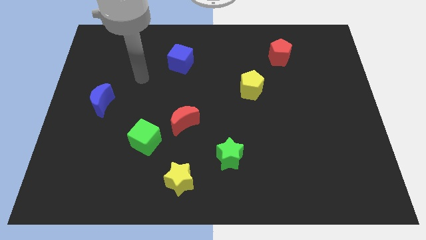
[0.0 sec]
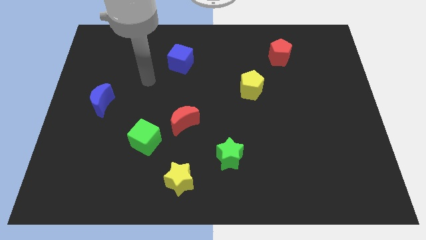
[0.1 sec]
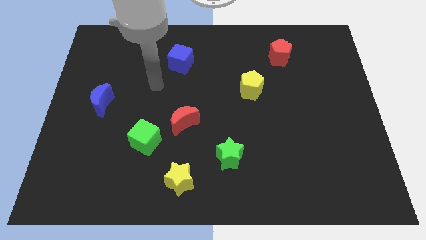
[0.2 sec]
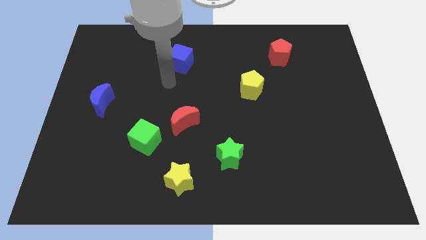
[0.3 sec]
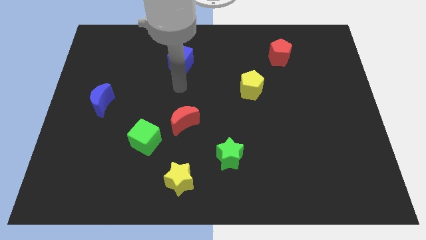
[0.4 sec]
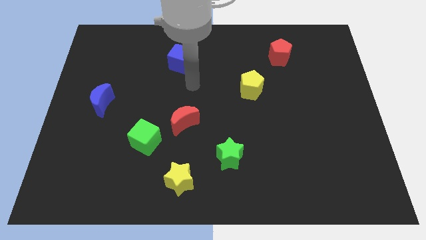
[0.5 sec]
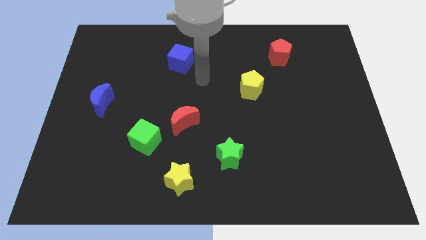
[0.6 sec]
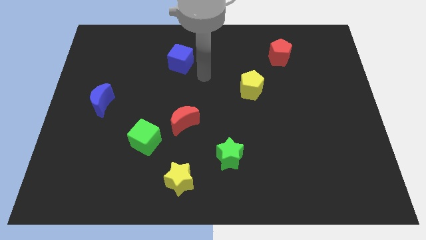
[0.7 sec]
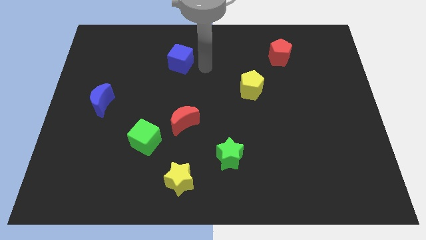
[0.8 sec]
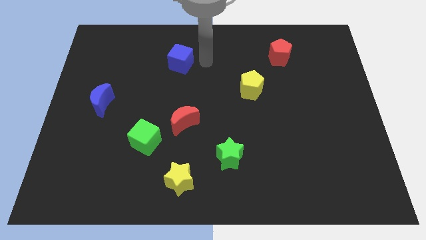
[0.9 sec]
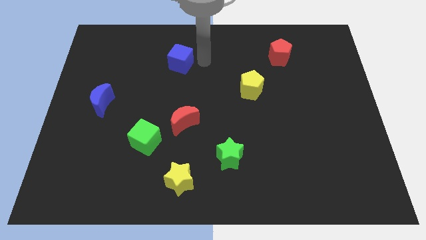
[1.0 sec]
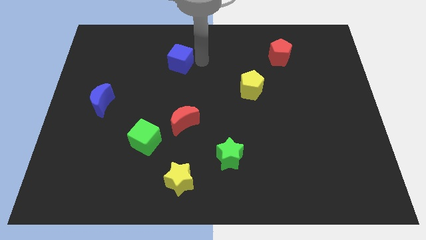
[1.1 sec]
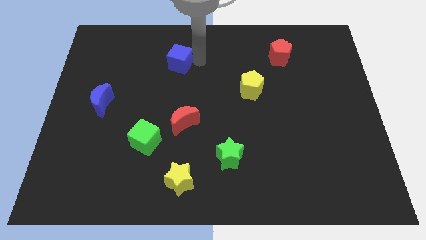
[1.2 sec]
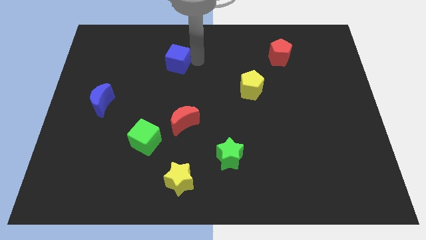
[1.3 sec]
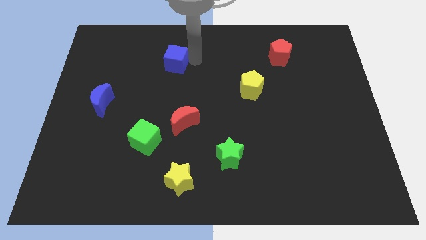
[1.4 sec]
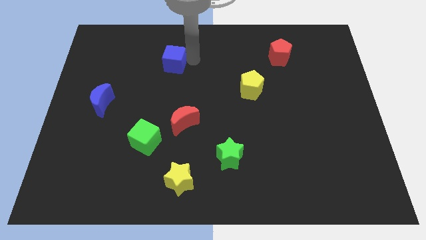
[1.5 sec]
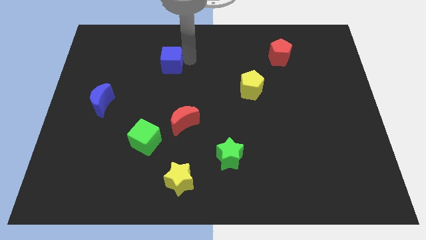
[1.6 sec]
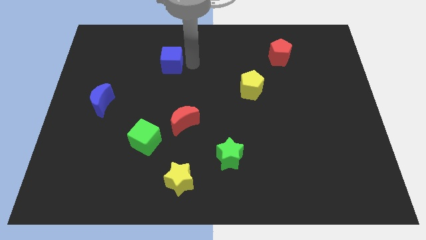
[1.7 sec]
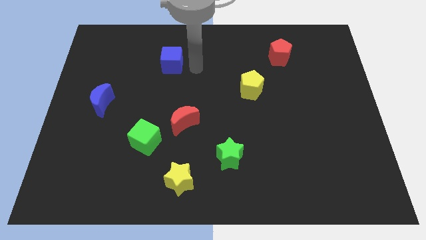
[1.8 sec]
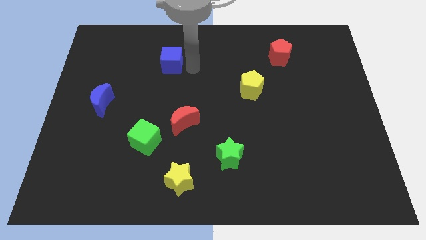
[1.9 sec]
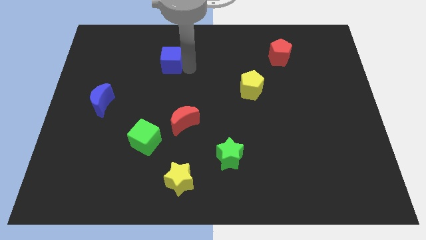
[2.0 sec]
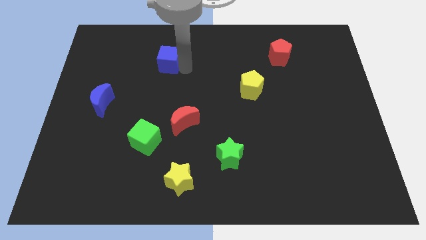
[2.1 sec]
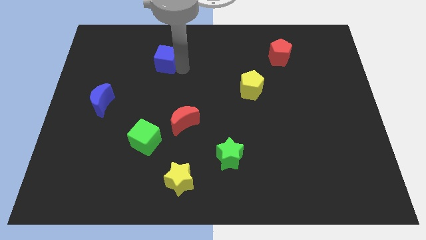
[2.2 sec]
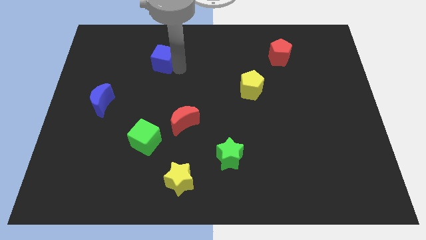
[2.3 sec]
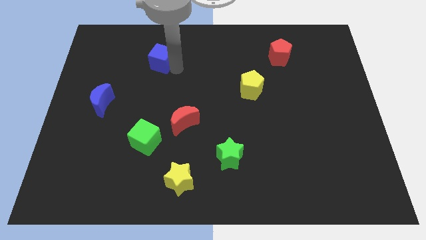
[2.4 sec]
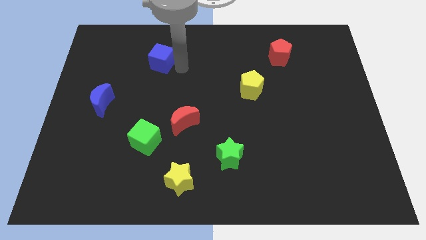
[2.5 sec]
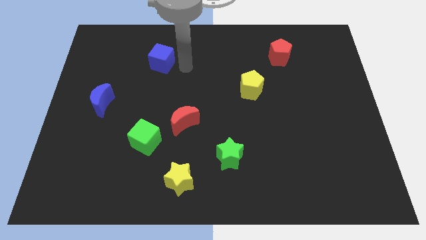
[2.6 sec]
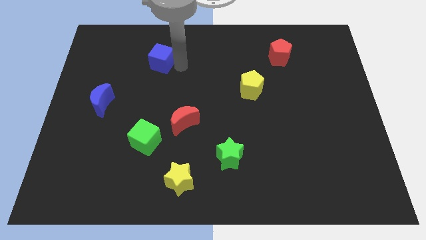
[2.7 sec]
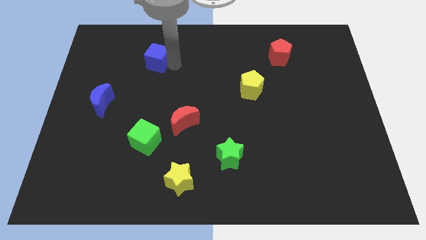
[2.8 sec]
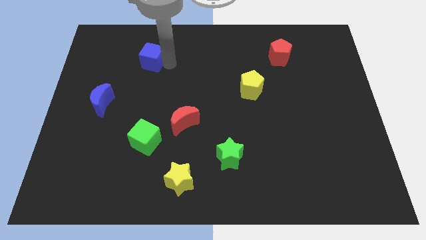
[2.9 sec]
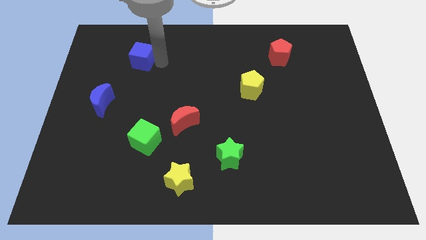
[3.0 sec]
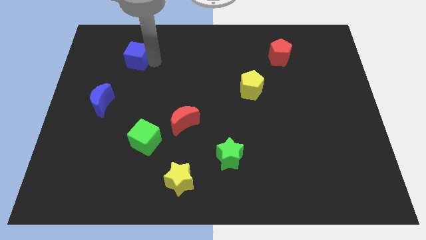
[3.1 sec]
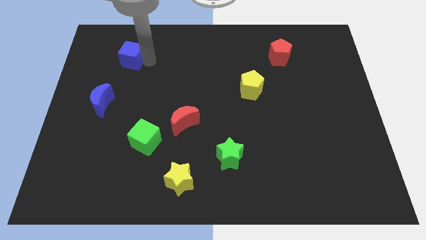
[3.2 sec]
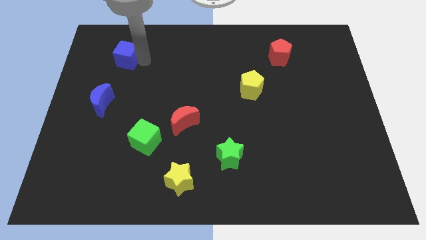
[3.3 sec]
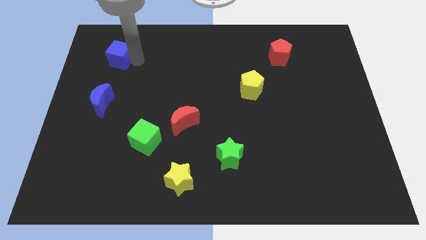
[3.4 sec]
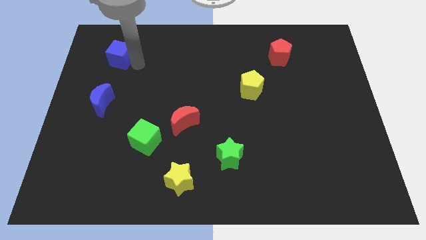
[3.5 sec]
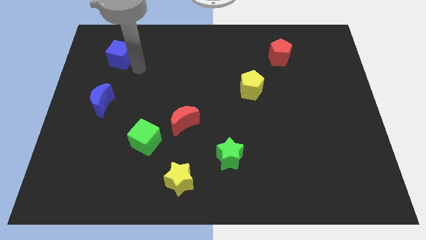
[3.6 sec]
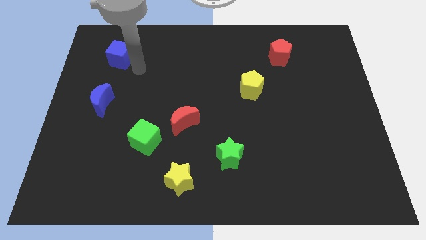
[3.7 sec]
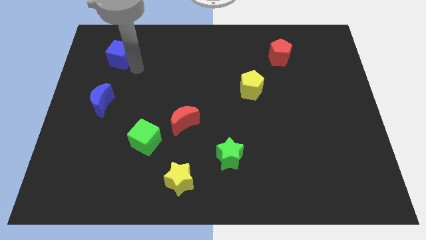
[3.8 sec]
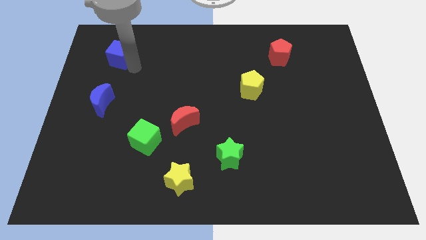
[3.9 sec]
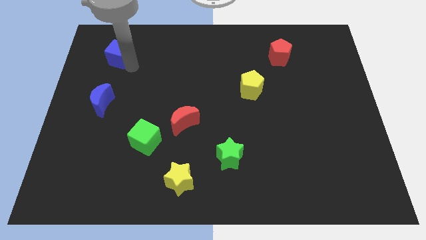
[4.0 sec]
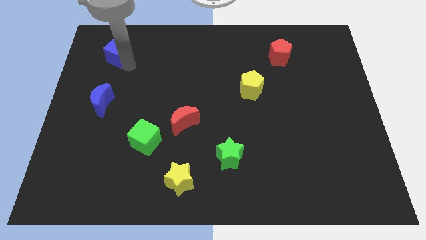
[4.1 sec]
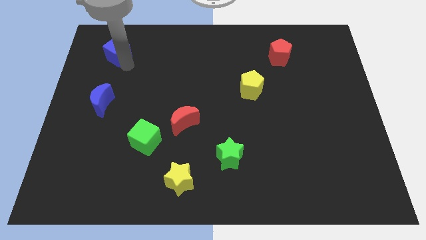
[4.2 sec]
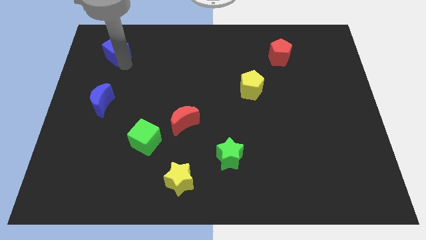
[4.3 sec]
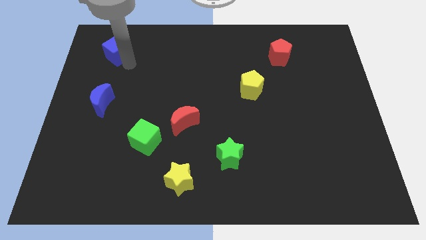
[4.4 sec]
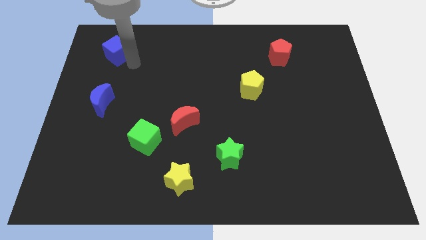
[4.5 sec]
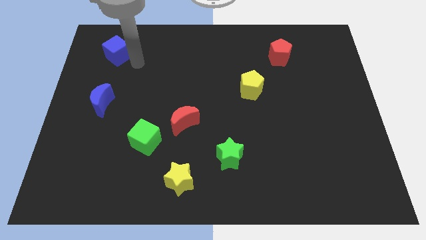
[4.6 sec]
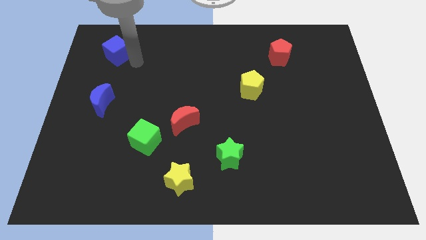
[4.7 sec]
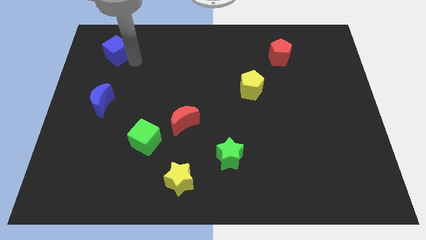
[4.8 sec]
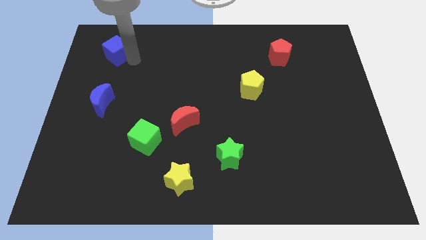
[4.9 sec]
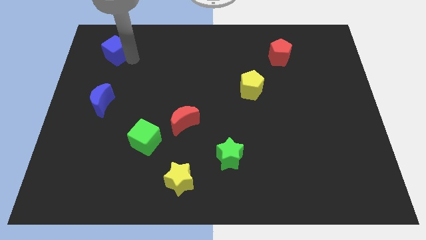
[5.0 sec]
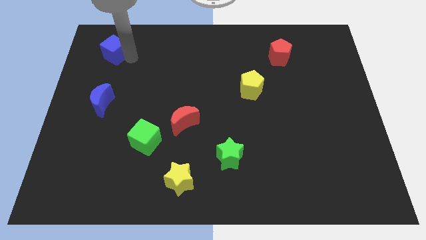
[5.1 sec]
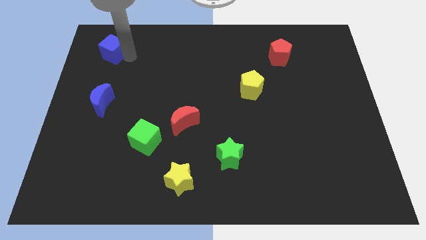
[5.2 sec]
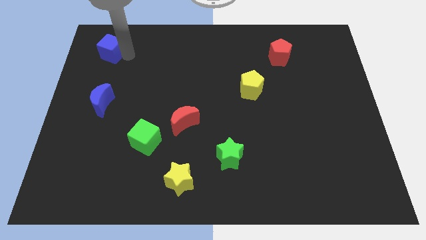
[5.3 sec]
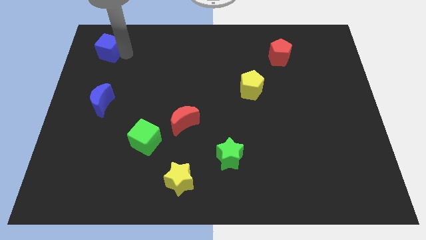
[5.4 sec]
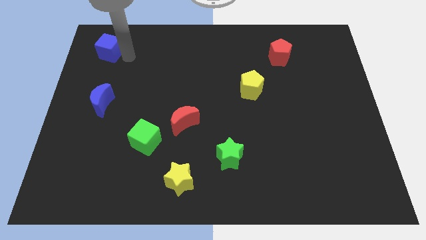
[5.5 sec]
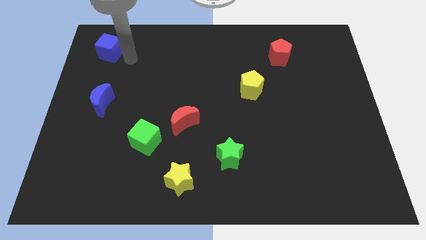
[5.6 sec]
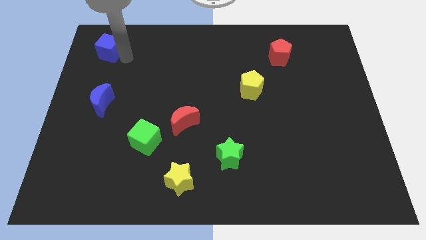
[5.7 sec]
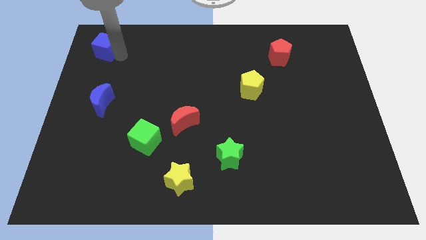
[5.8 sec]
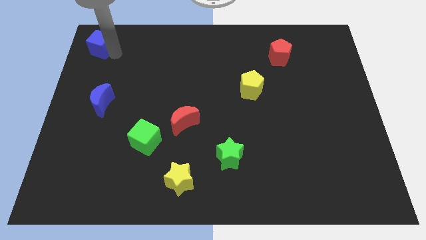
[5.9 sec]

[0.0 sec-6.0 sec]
put the blue cube to the top left corner
